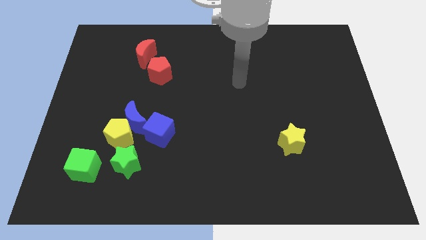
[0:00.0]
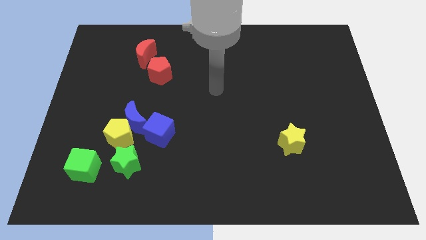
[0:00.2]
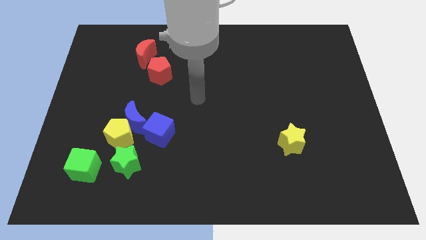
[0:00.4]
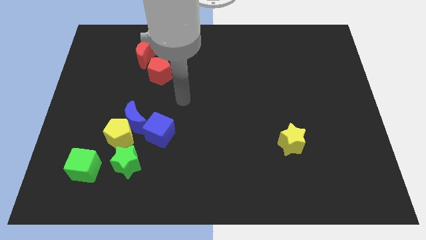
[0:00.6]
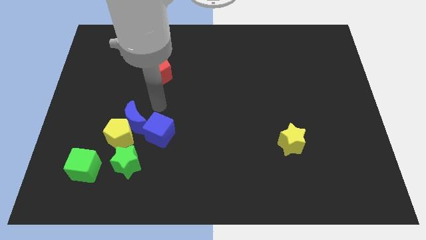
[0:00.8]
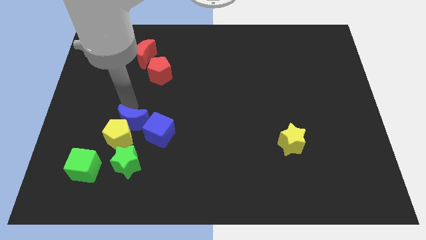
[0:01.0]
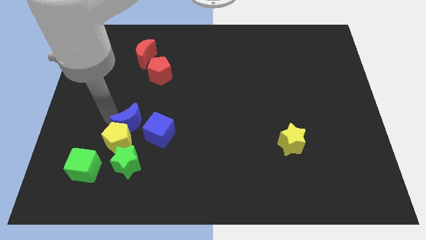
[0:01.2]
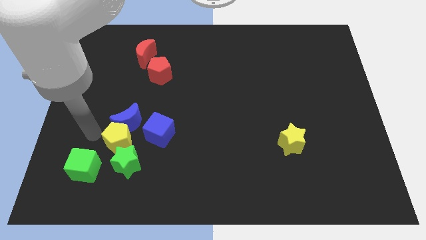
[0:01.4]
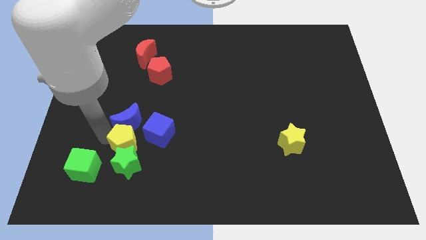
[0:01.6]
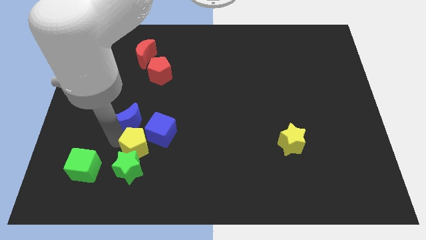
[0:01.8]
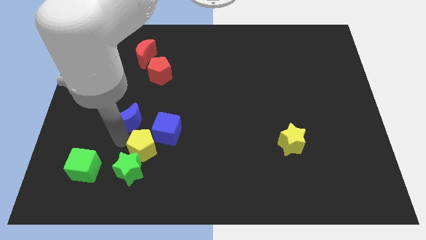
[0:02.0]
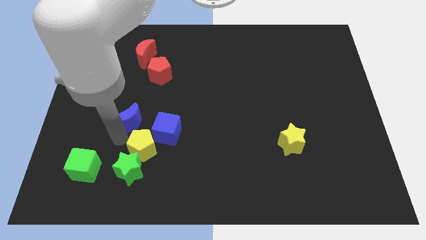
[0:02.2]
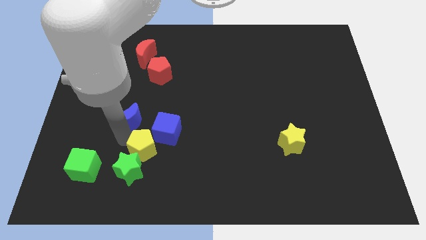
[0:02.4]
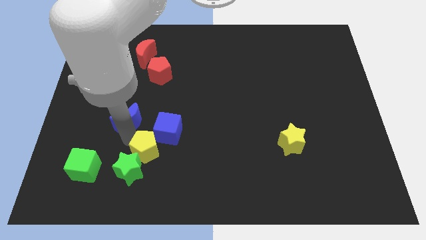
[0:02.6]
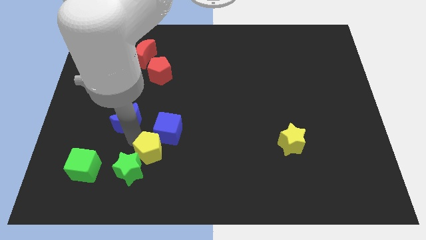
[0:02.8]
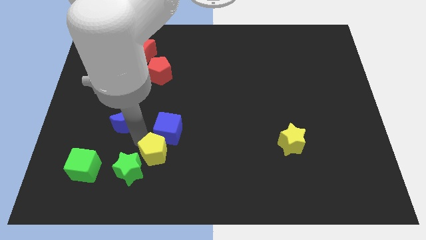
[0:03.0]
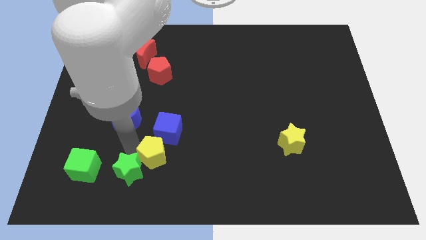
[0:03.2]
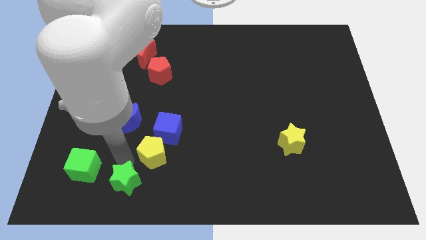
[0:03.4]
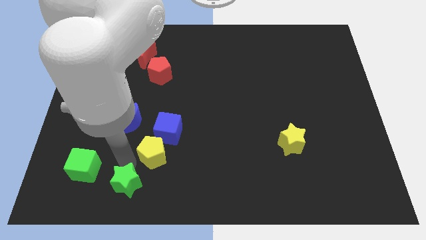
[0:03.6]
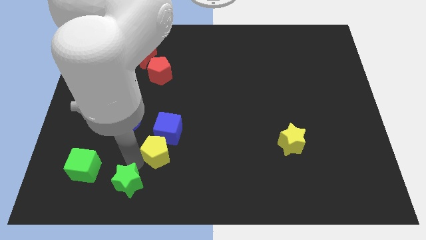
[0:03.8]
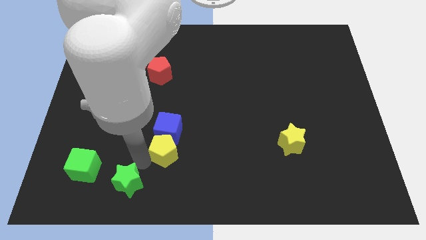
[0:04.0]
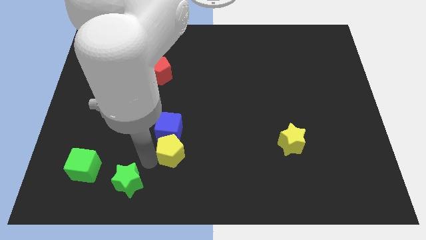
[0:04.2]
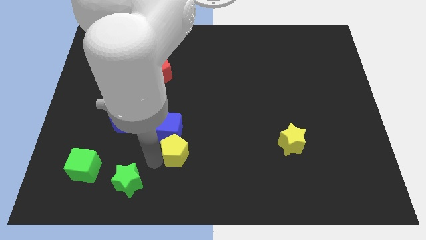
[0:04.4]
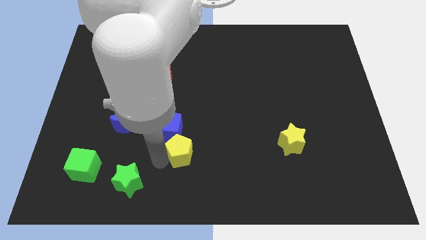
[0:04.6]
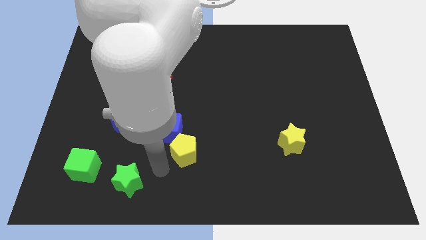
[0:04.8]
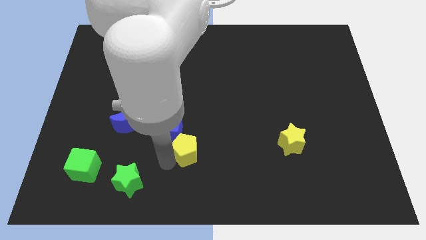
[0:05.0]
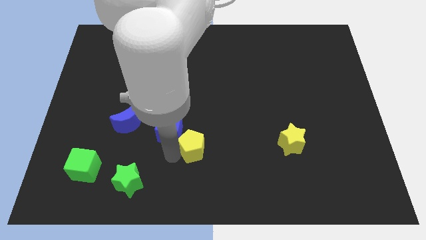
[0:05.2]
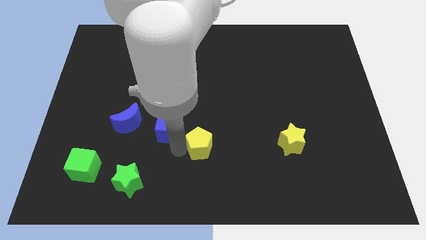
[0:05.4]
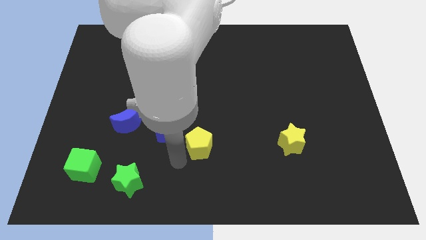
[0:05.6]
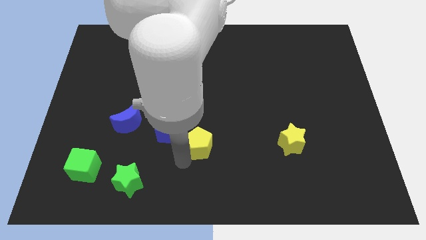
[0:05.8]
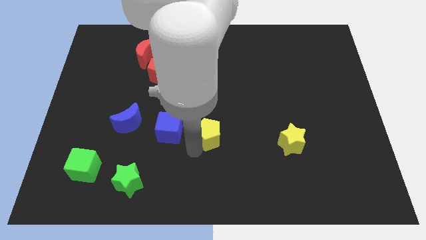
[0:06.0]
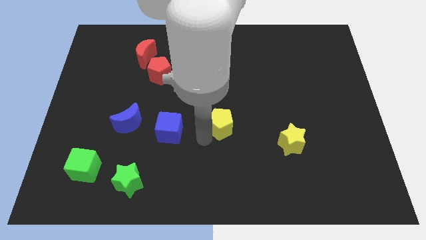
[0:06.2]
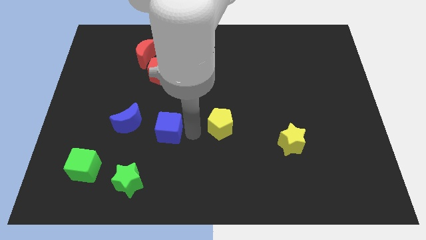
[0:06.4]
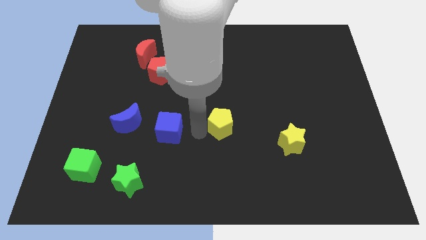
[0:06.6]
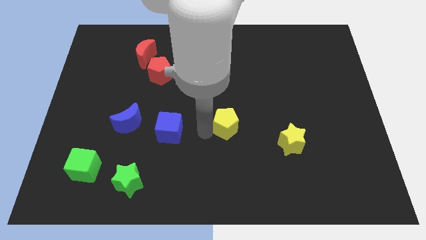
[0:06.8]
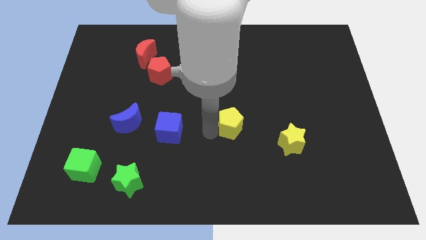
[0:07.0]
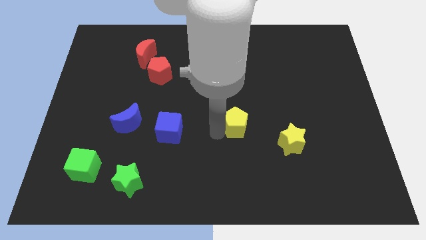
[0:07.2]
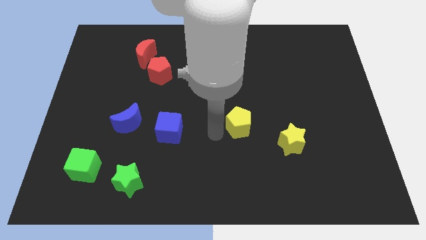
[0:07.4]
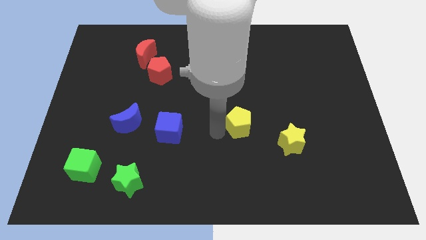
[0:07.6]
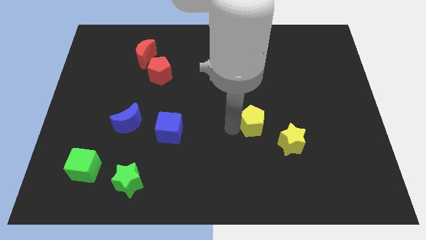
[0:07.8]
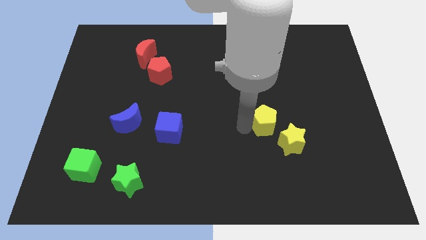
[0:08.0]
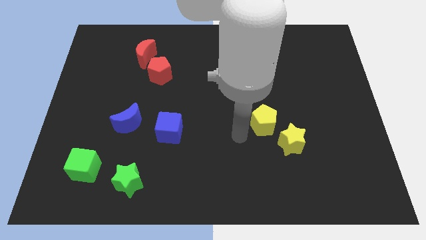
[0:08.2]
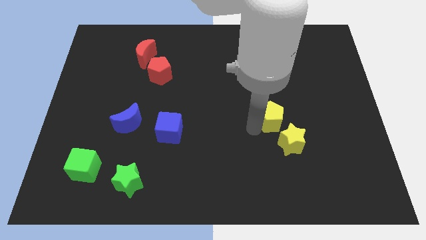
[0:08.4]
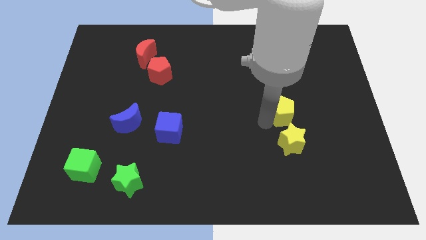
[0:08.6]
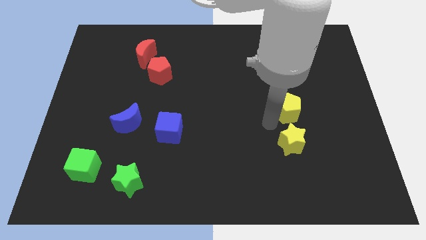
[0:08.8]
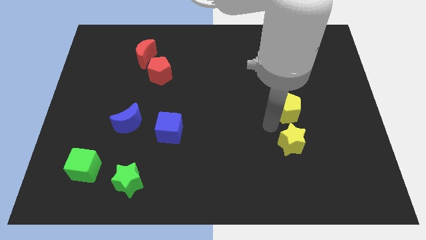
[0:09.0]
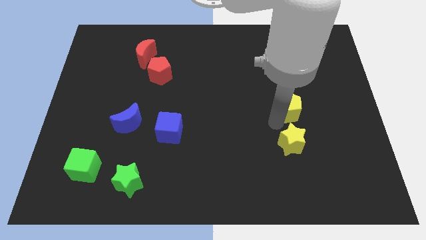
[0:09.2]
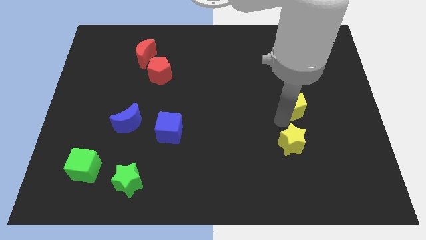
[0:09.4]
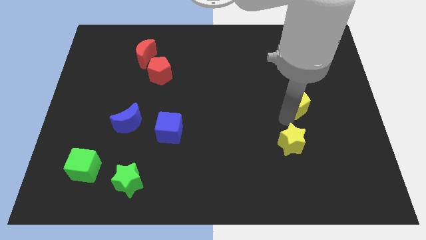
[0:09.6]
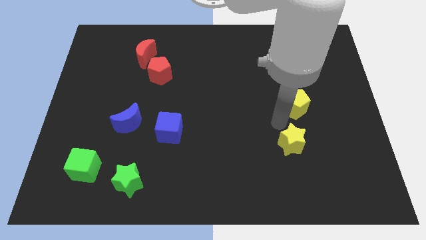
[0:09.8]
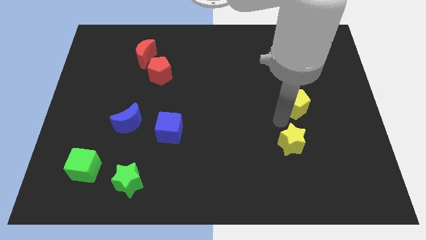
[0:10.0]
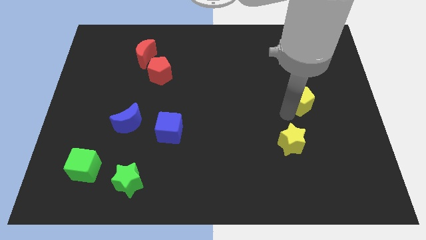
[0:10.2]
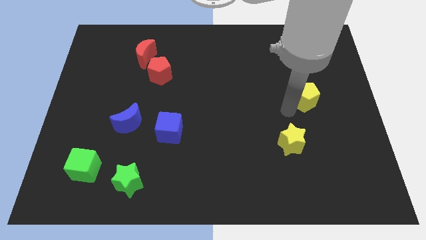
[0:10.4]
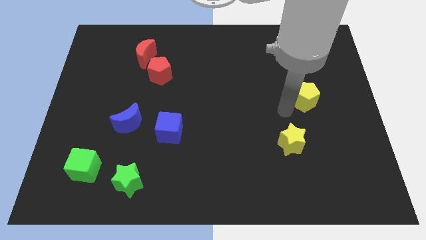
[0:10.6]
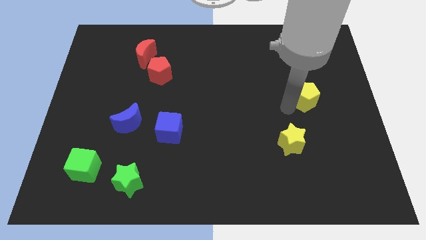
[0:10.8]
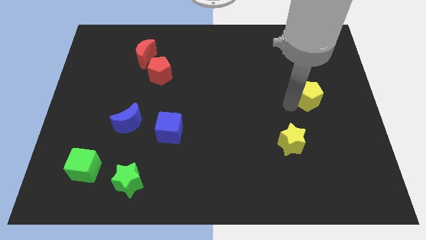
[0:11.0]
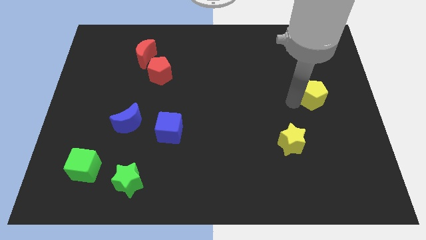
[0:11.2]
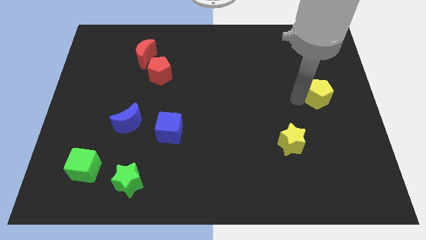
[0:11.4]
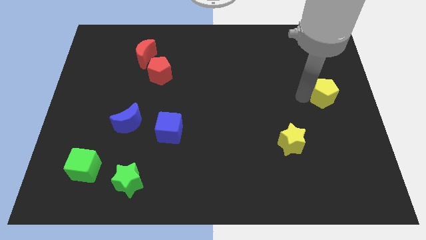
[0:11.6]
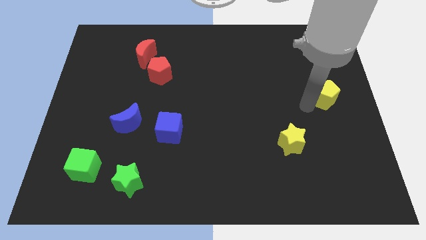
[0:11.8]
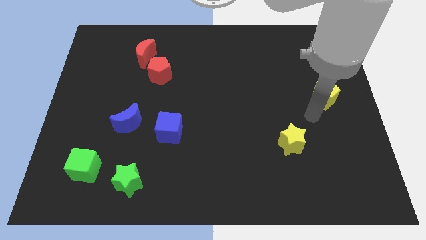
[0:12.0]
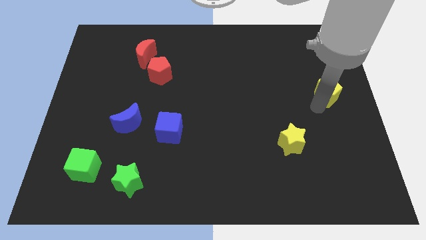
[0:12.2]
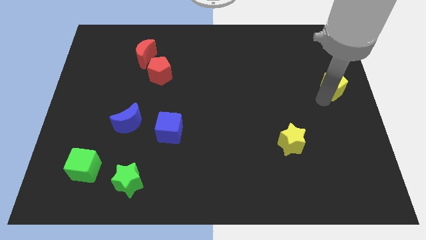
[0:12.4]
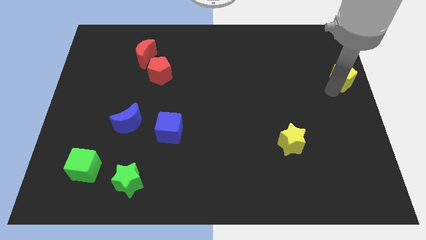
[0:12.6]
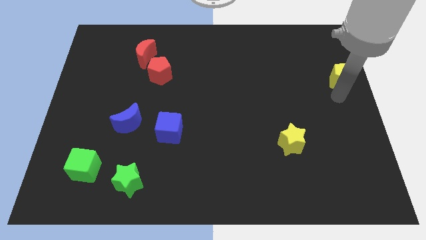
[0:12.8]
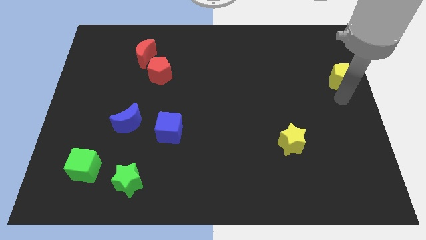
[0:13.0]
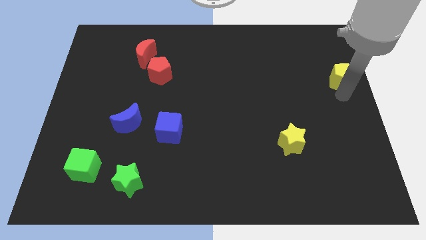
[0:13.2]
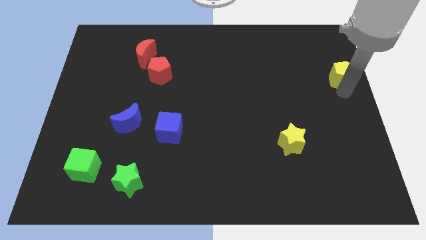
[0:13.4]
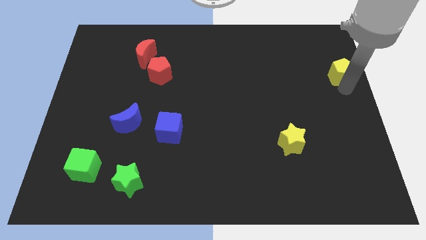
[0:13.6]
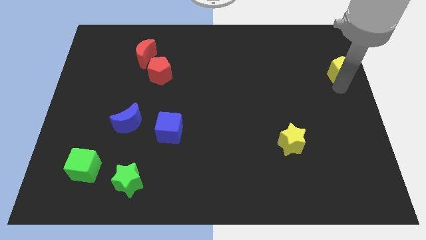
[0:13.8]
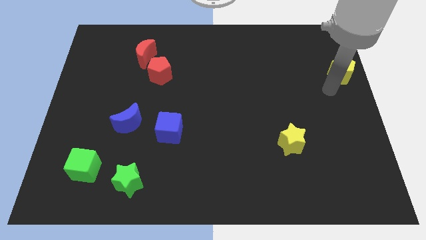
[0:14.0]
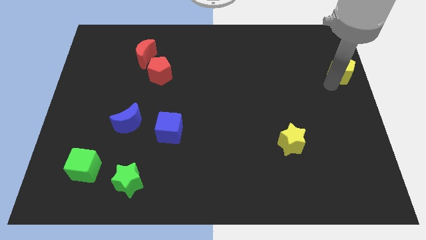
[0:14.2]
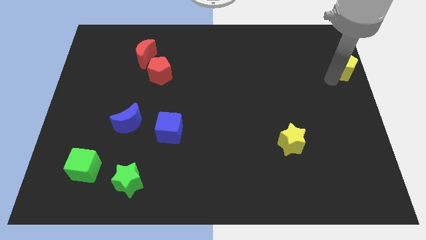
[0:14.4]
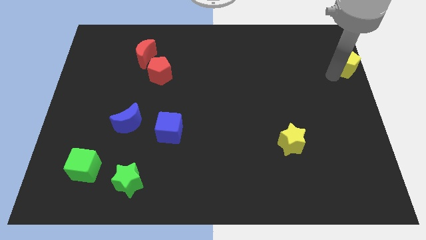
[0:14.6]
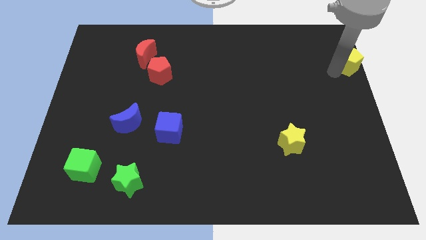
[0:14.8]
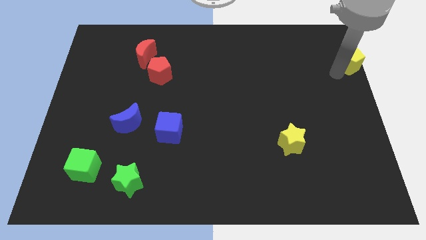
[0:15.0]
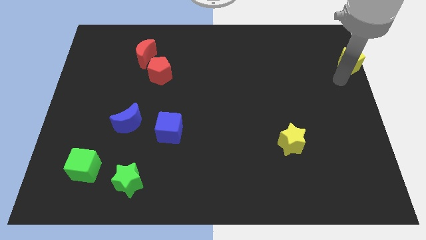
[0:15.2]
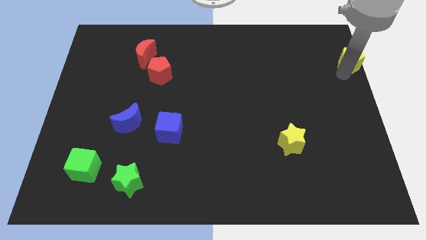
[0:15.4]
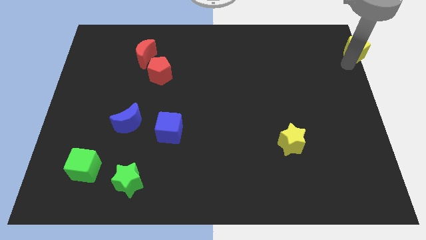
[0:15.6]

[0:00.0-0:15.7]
put the yellow pentagon to the top right

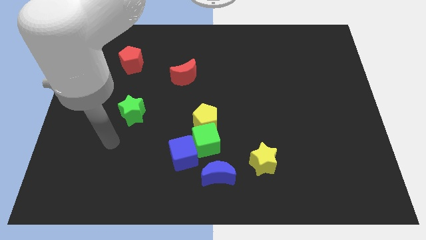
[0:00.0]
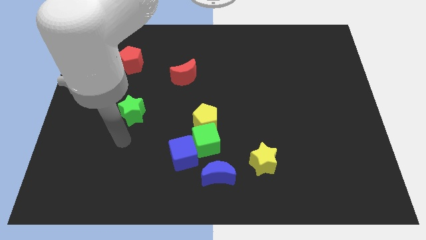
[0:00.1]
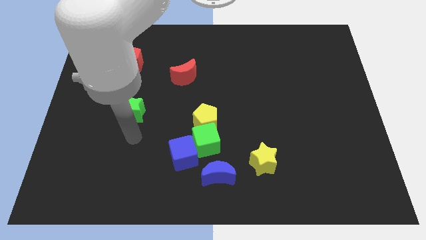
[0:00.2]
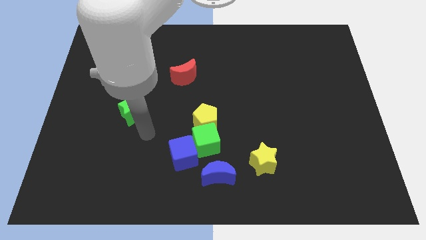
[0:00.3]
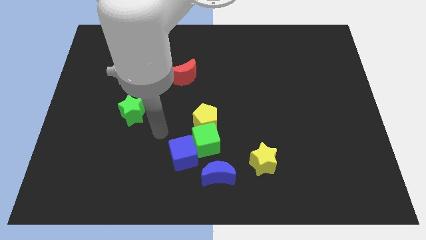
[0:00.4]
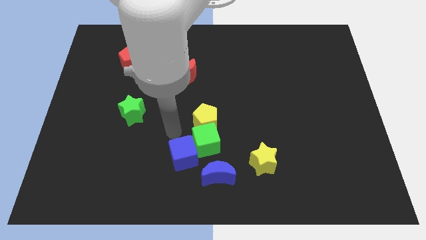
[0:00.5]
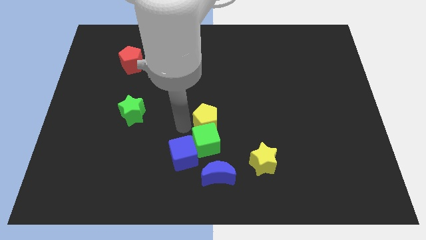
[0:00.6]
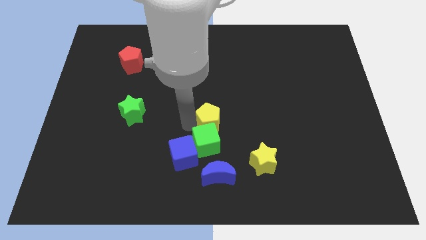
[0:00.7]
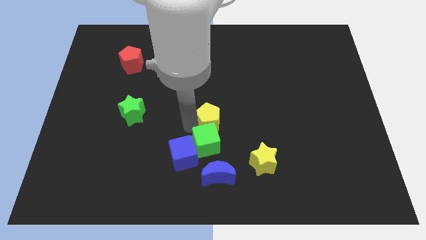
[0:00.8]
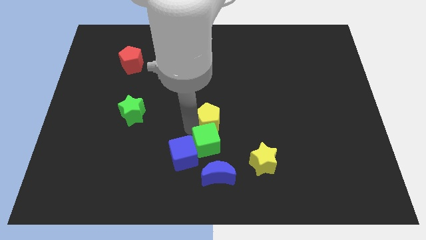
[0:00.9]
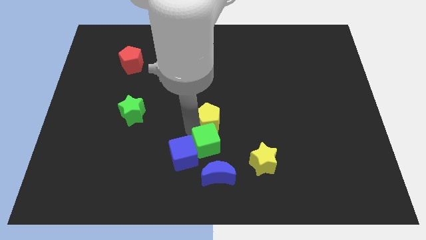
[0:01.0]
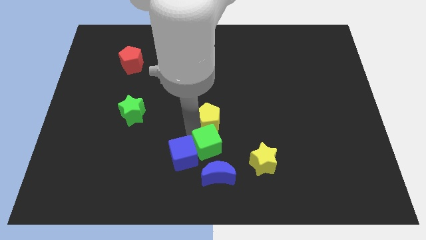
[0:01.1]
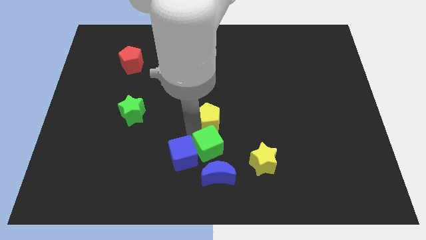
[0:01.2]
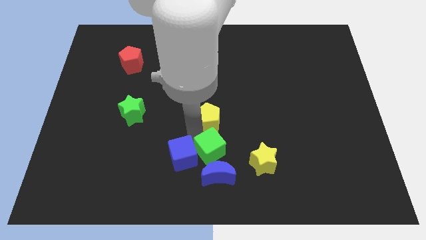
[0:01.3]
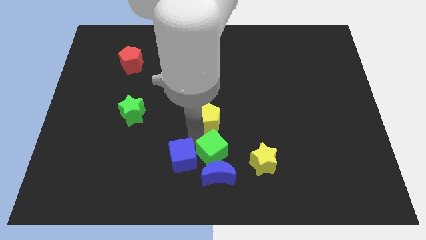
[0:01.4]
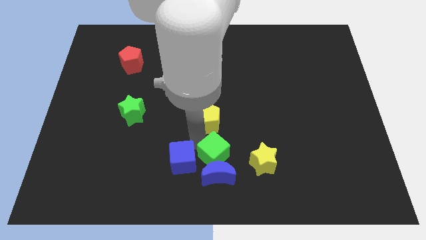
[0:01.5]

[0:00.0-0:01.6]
move the green cube to the bottom
